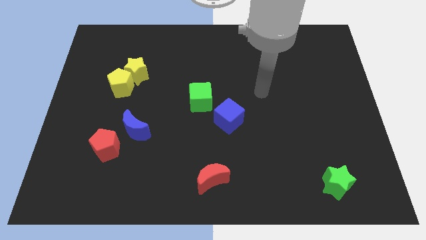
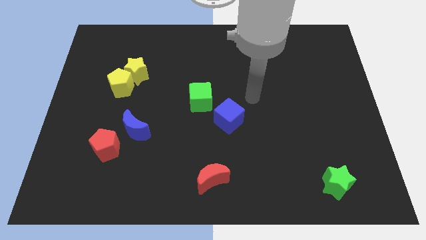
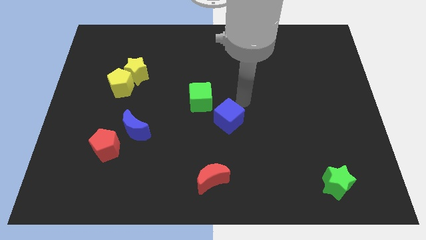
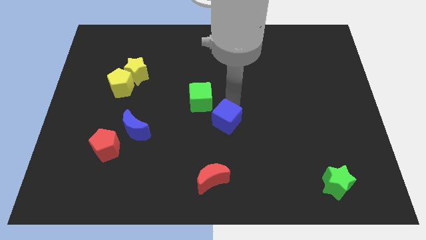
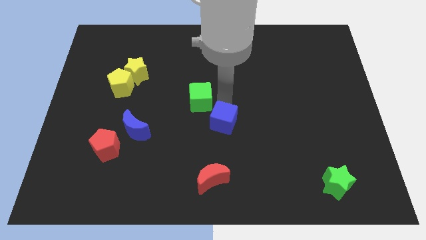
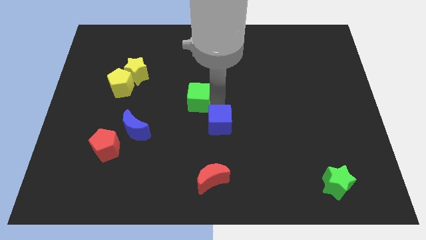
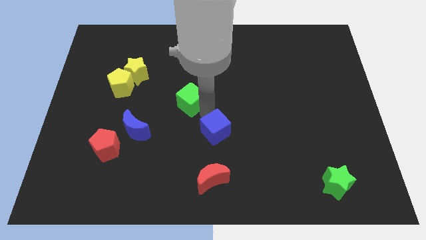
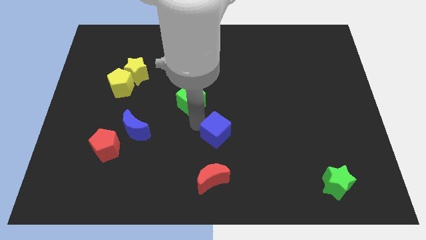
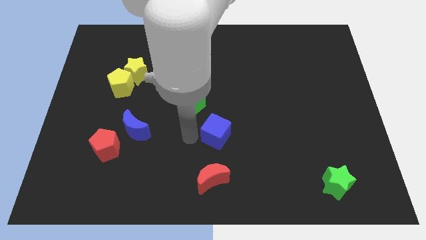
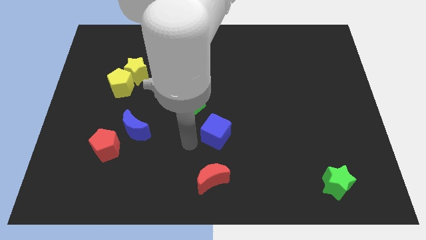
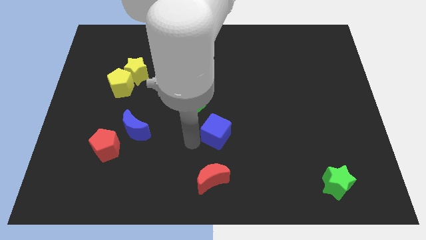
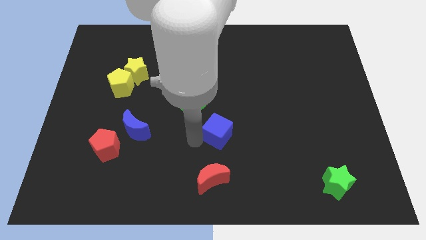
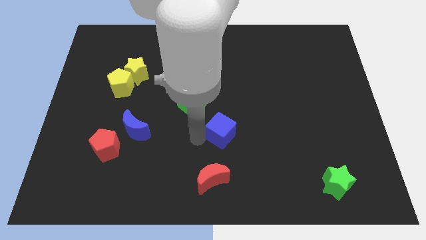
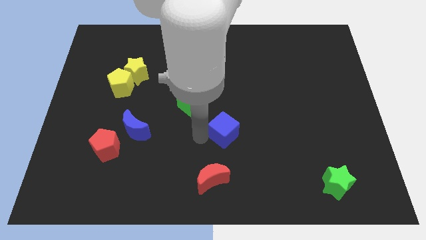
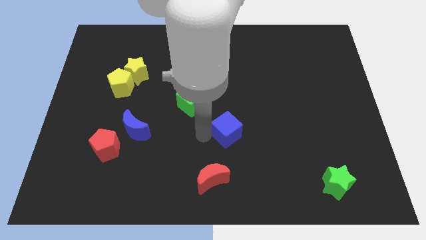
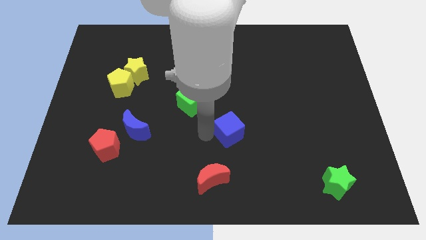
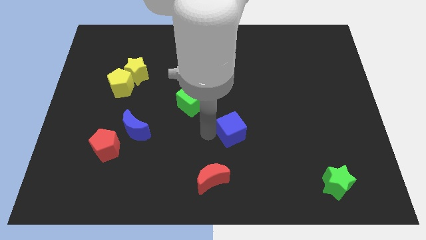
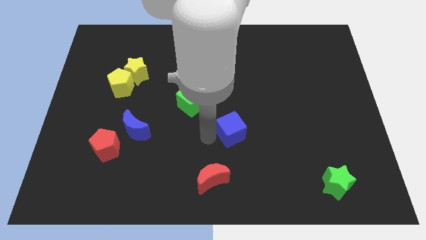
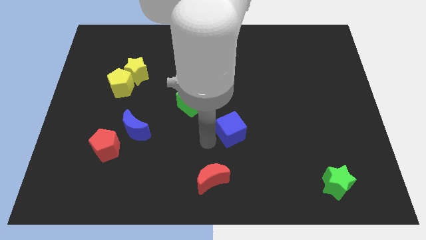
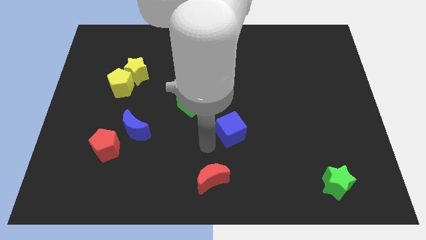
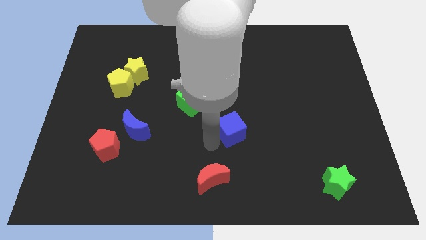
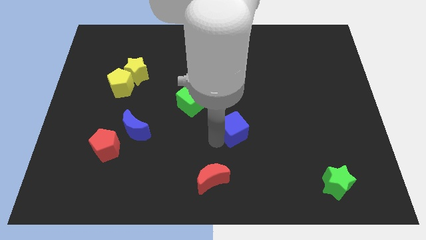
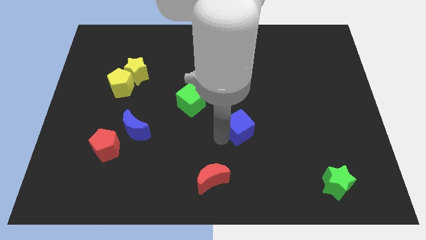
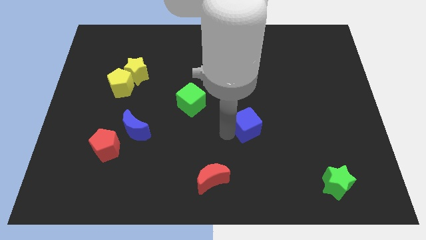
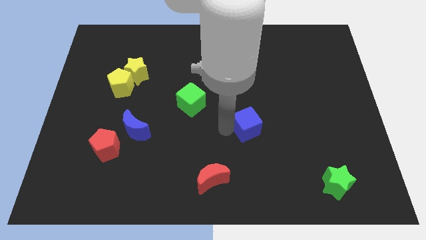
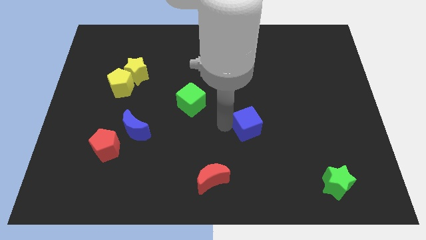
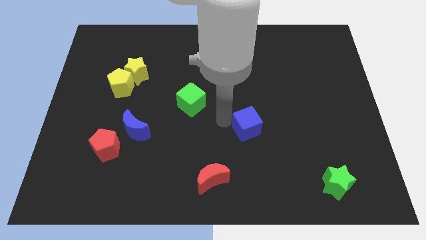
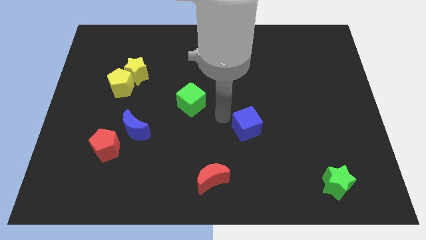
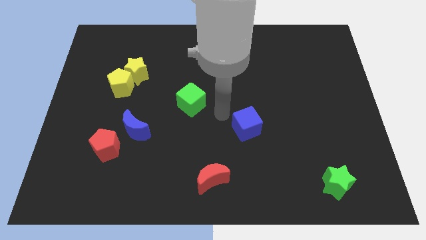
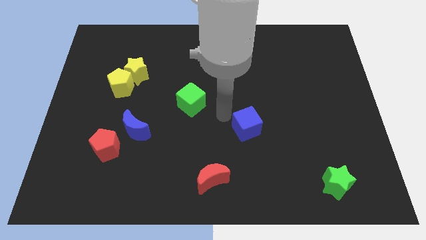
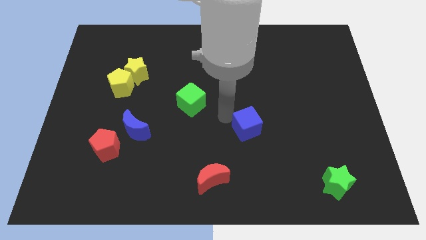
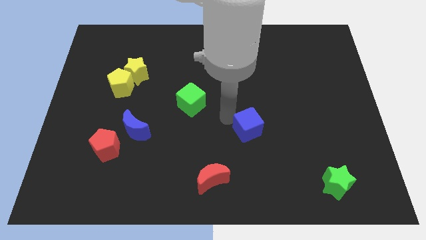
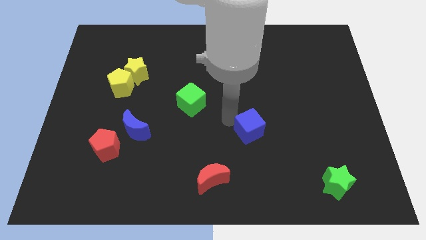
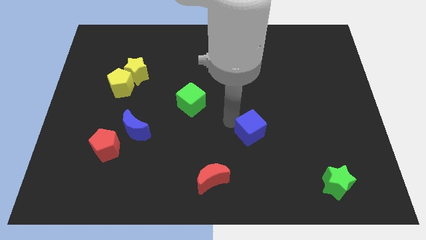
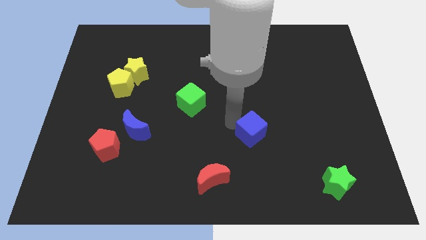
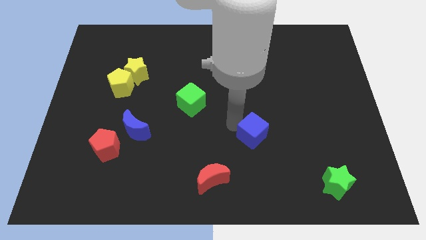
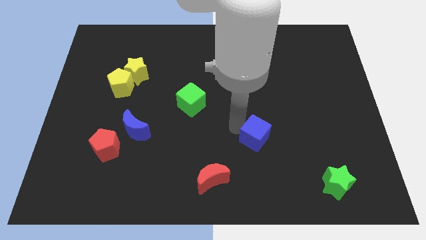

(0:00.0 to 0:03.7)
slide the blue cube downwards and right diagonally a little

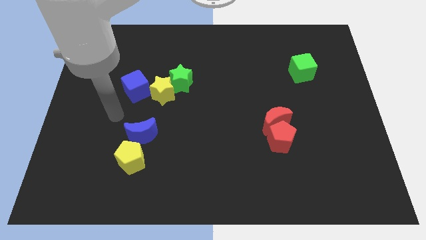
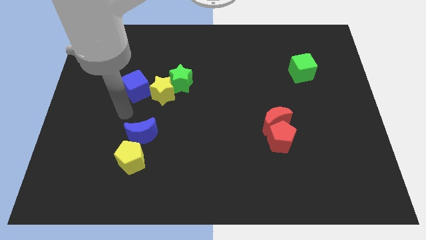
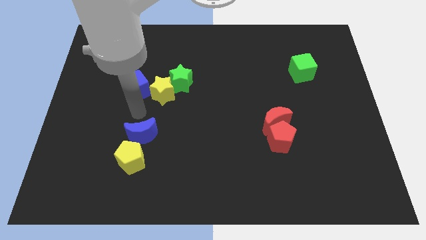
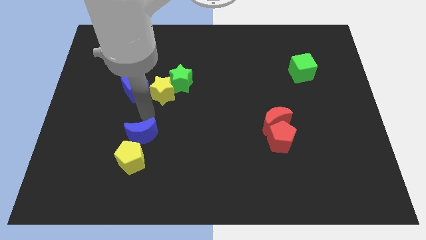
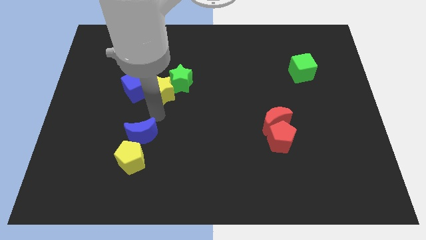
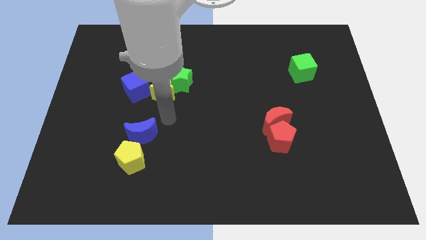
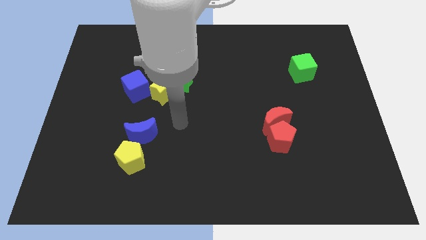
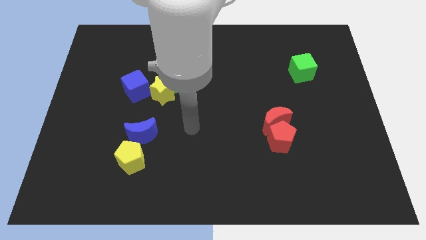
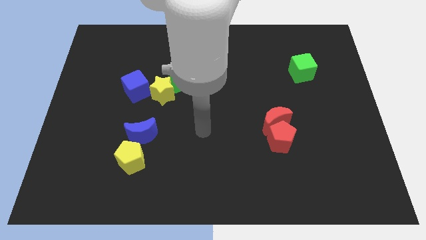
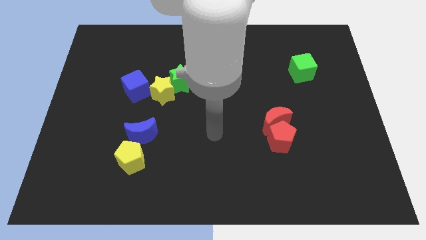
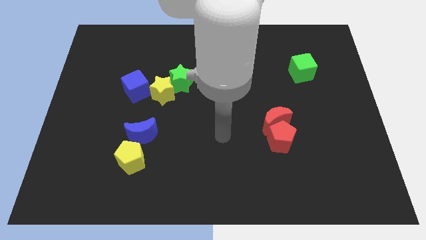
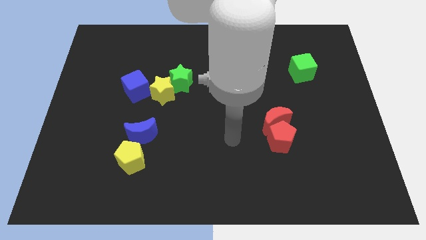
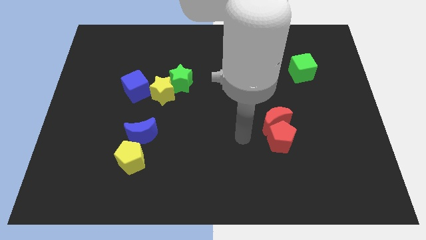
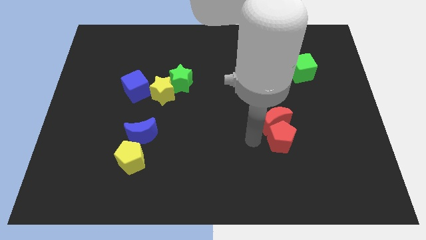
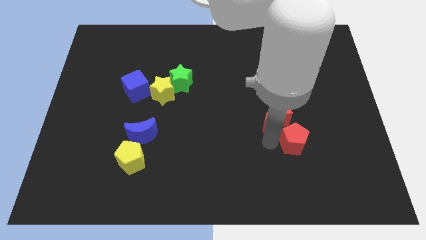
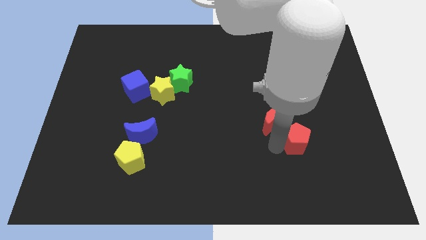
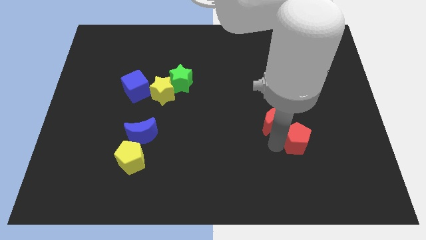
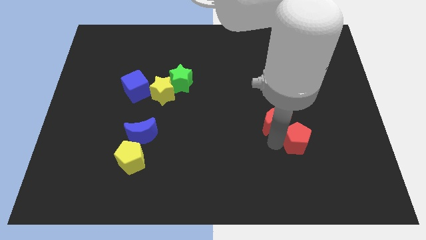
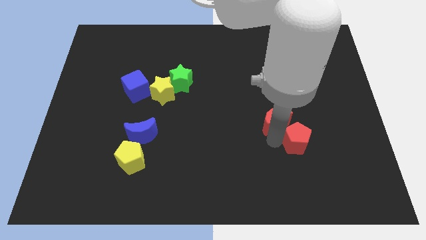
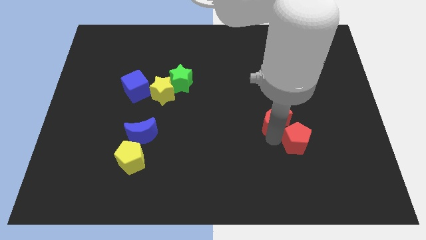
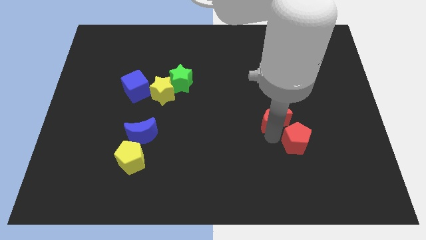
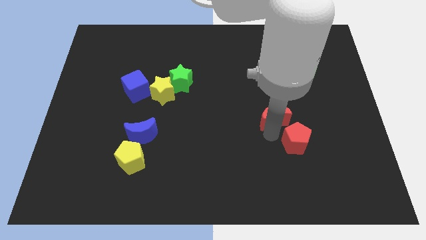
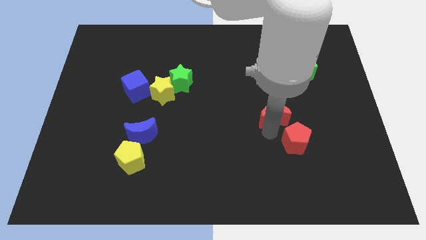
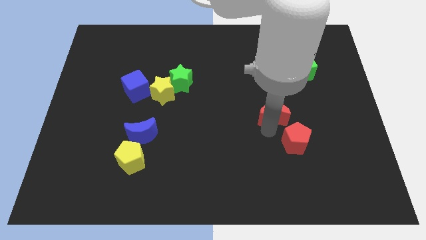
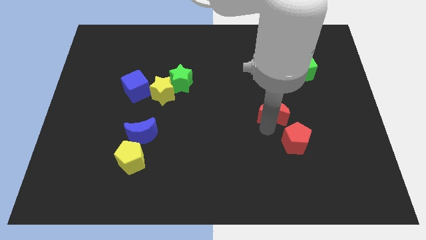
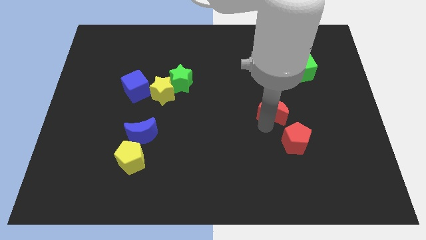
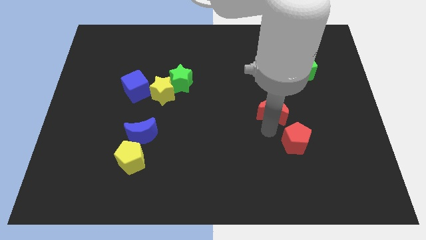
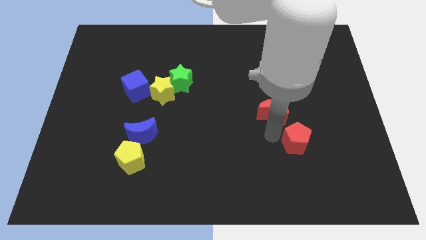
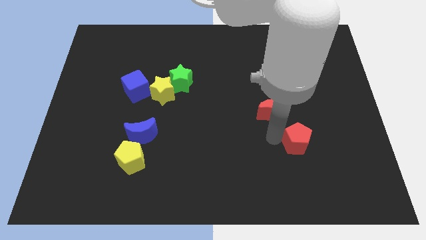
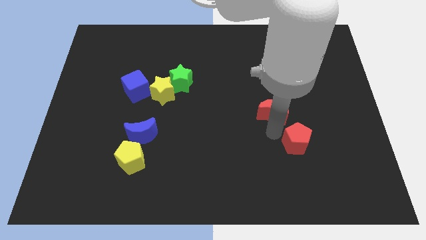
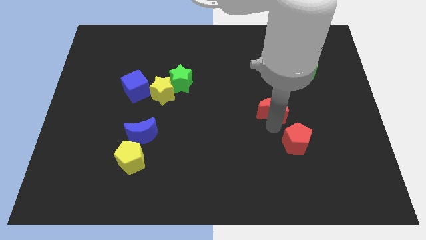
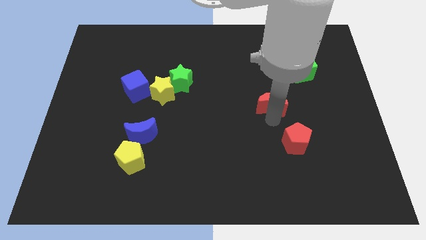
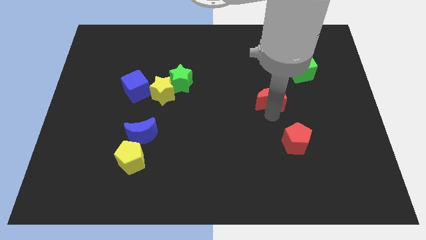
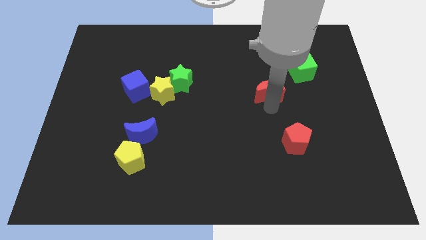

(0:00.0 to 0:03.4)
slide the red moon slightly up

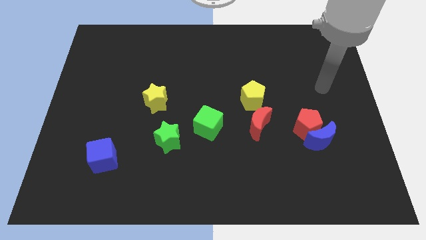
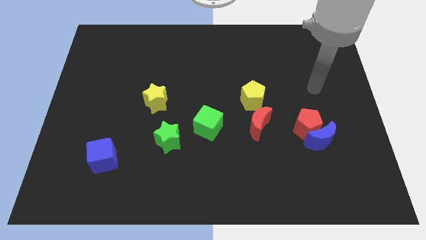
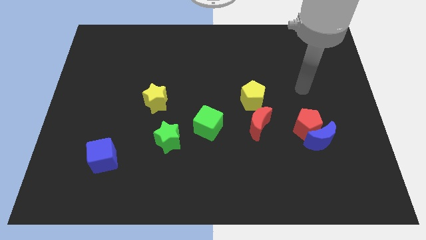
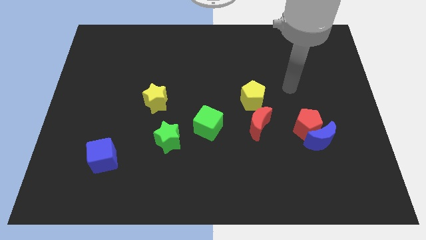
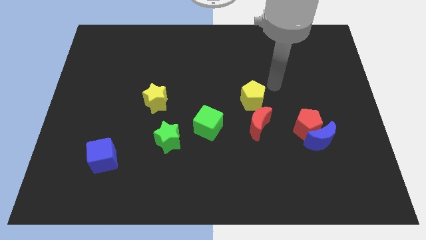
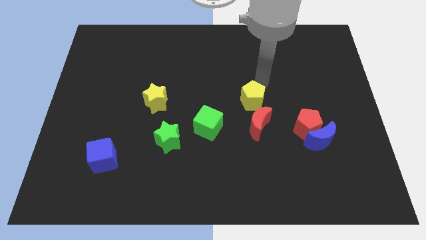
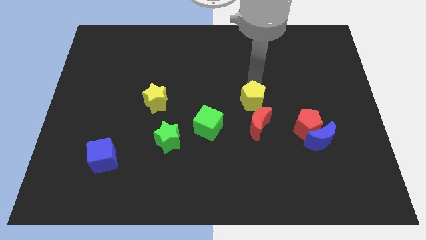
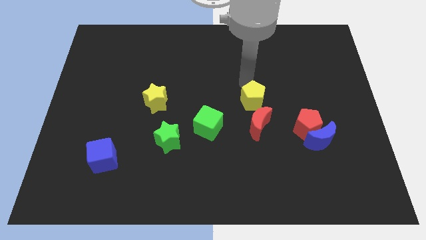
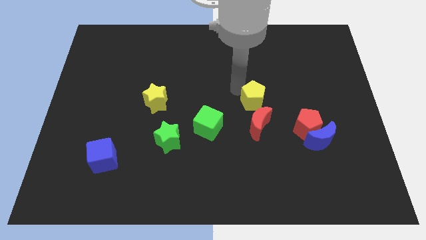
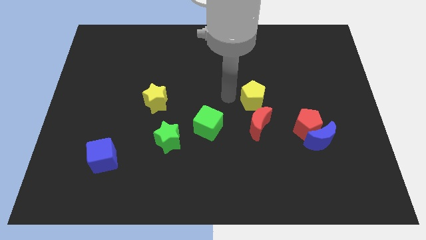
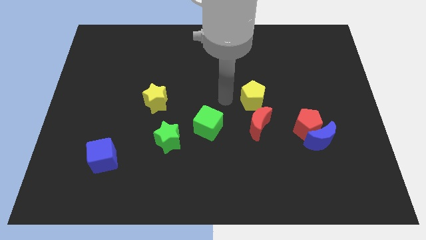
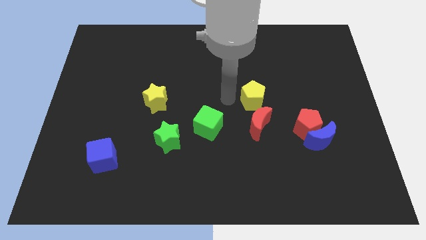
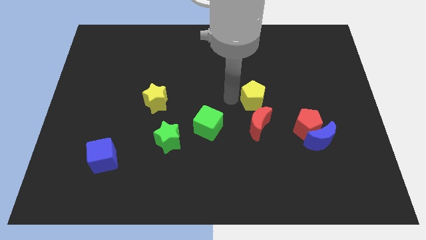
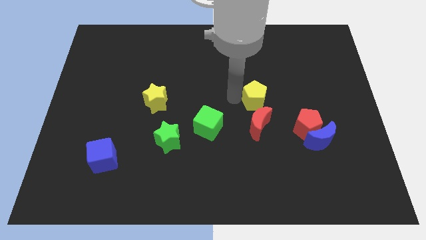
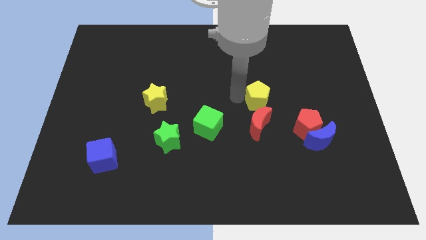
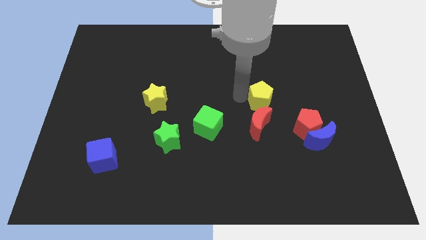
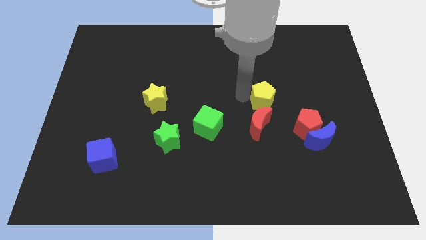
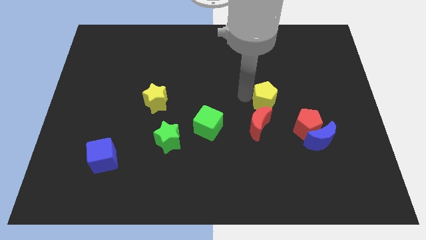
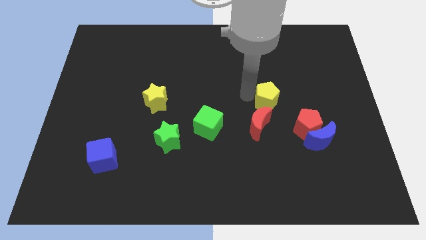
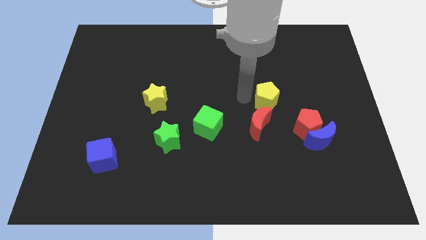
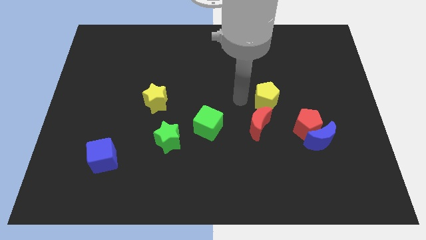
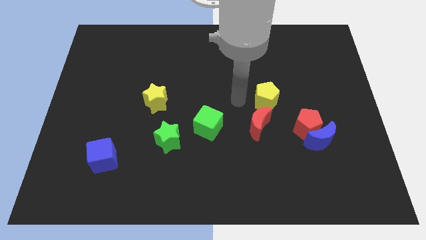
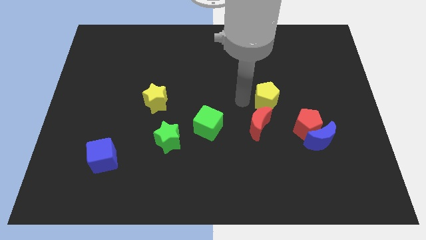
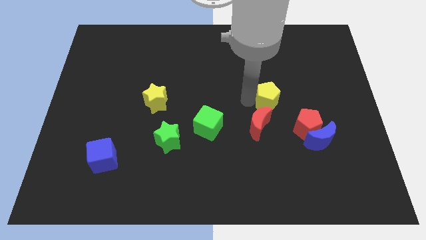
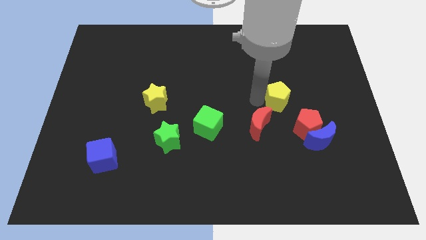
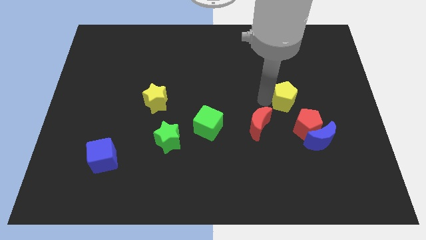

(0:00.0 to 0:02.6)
slightly slide the yellow pentagon right
